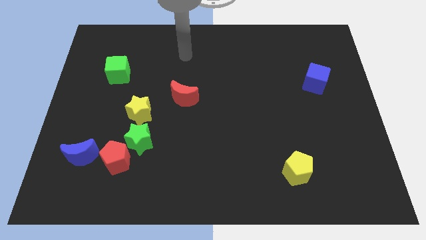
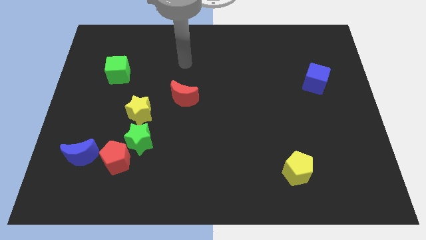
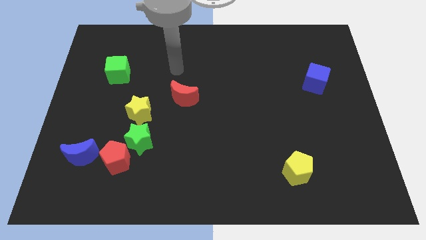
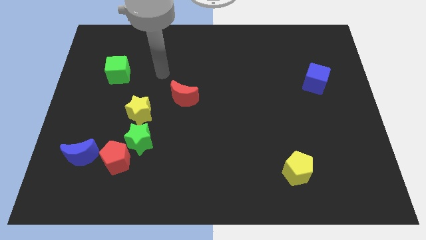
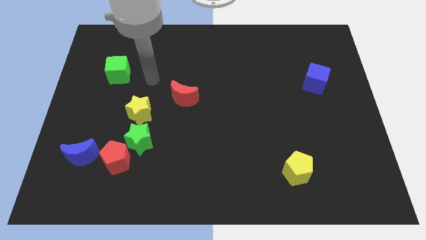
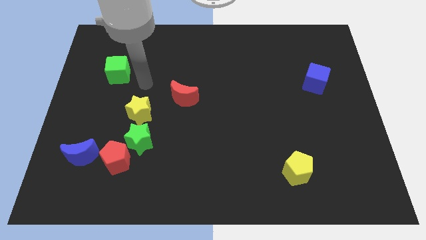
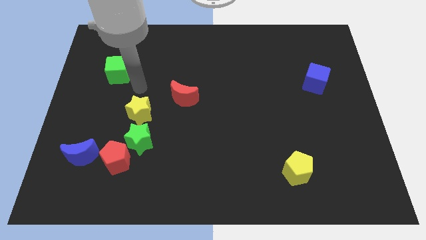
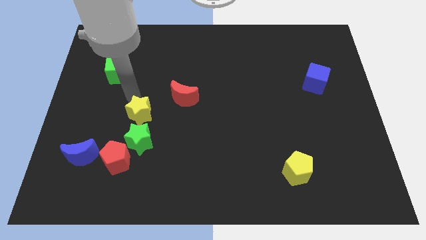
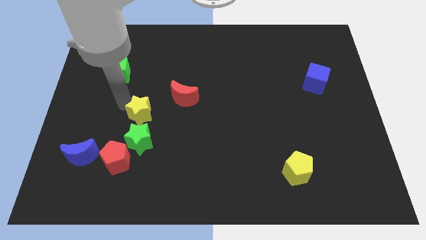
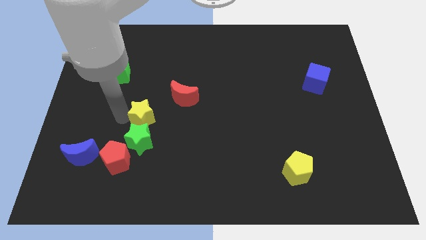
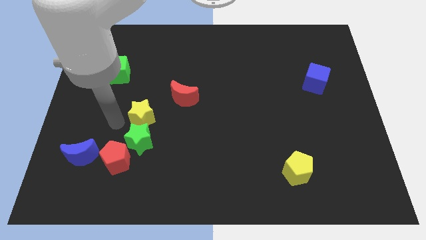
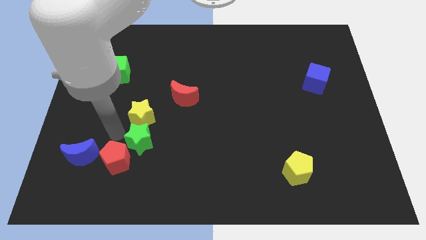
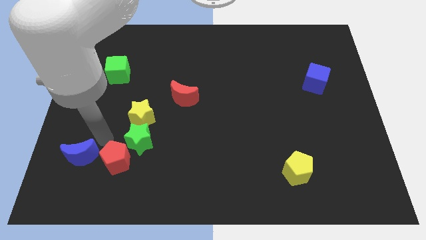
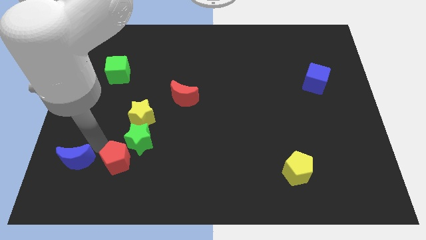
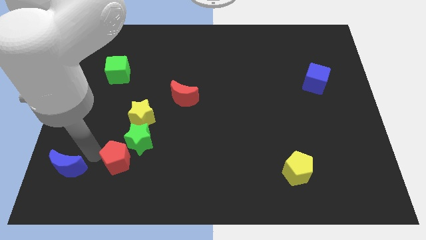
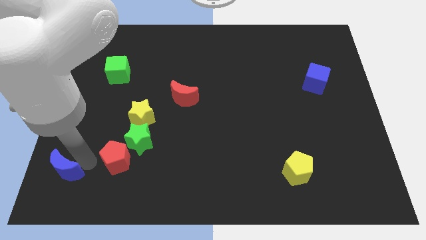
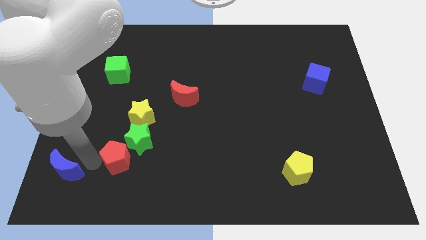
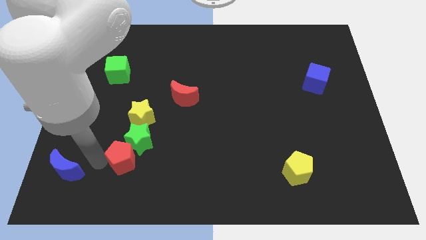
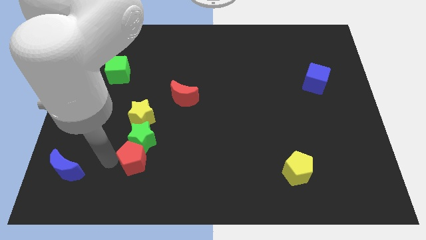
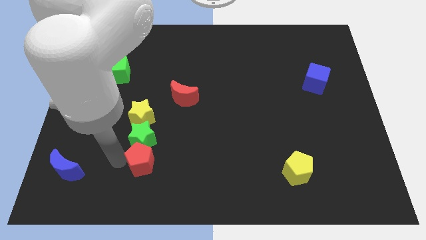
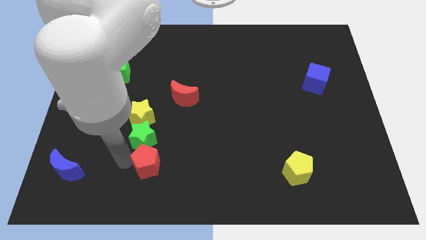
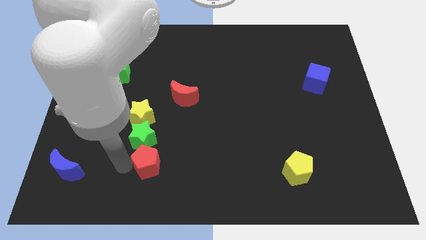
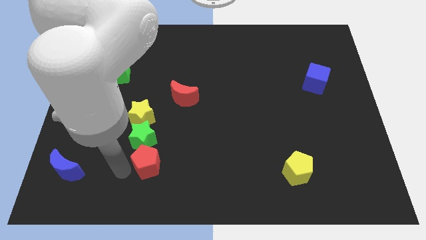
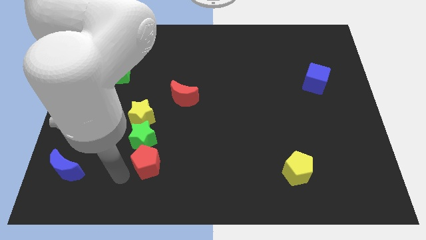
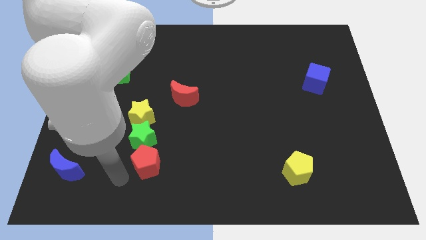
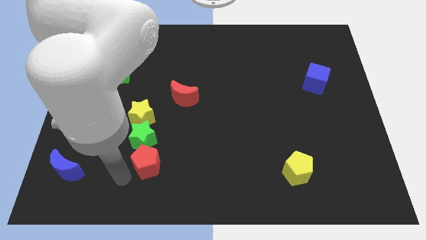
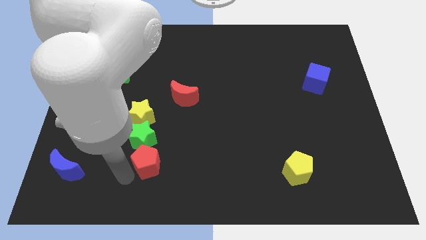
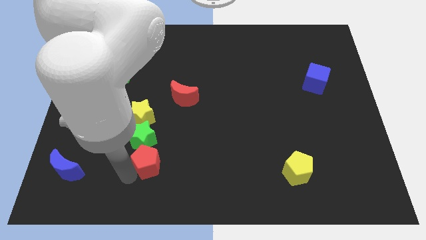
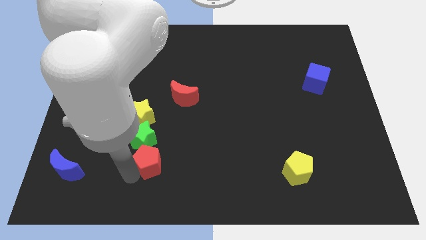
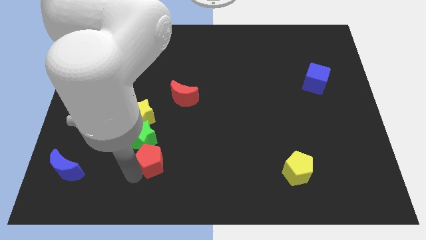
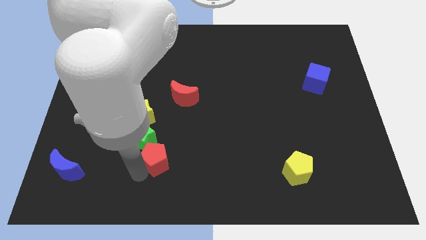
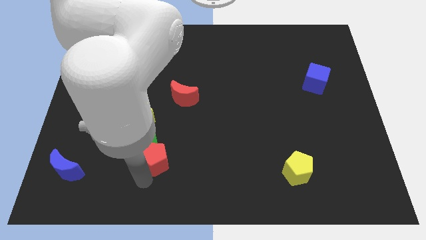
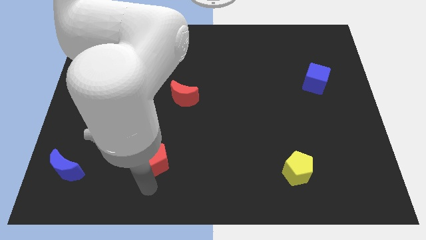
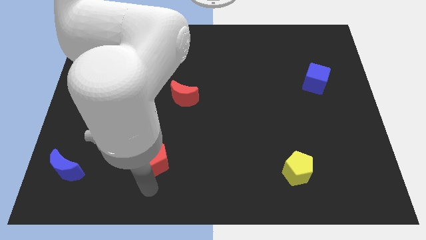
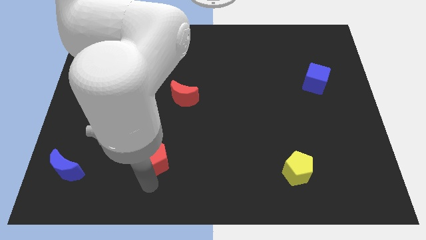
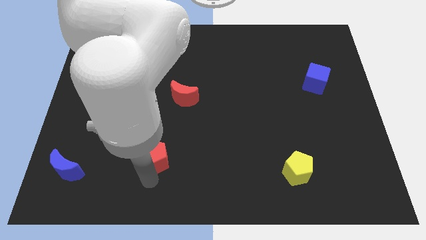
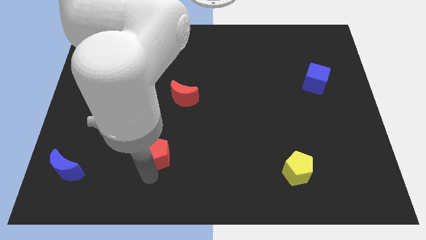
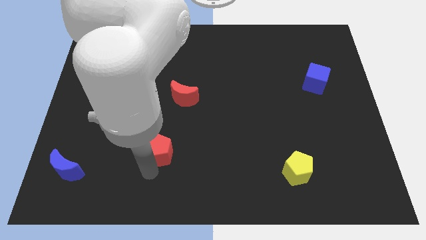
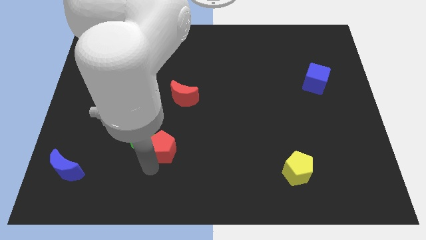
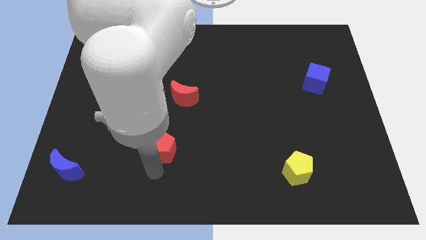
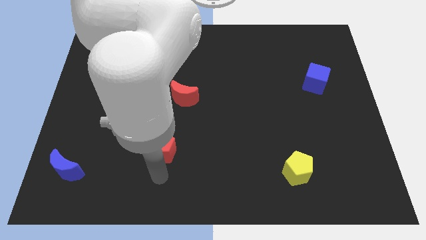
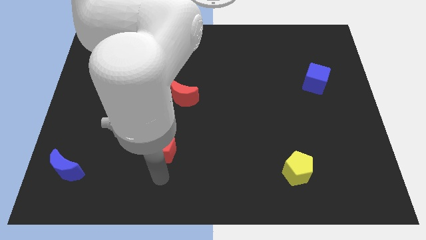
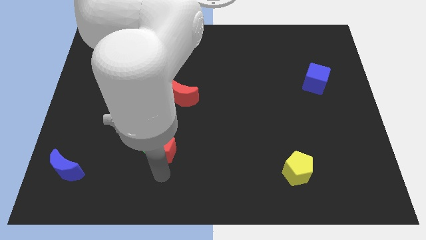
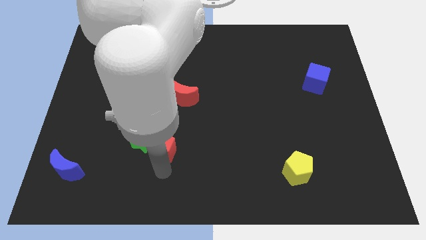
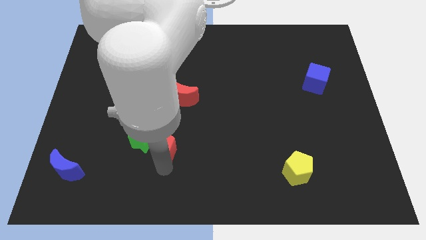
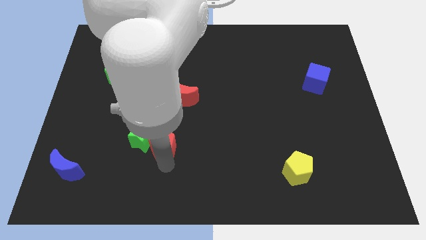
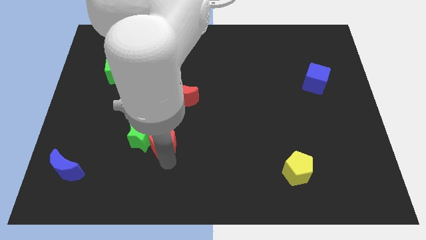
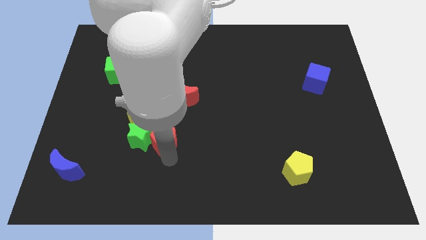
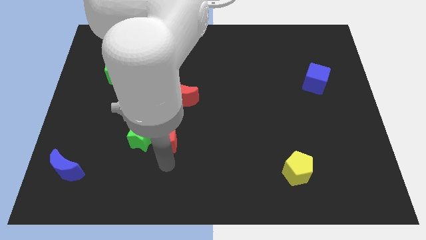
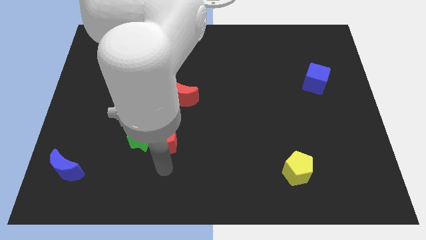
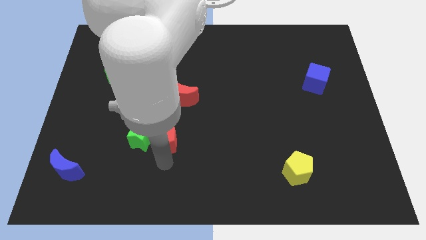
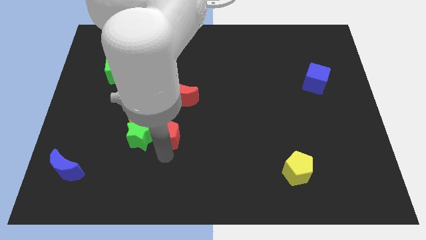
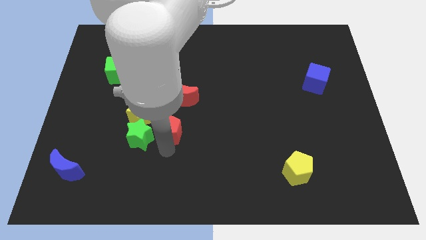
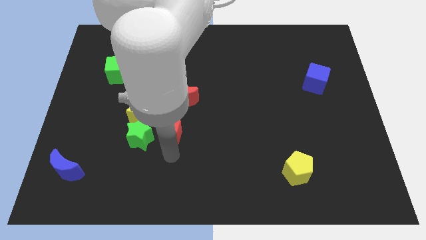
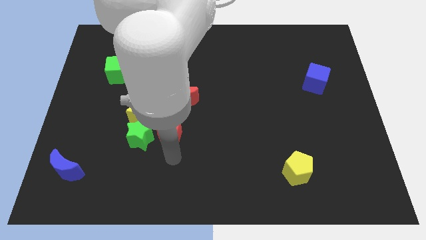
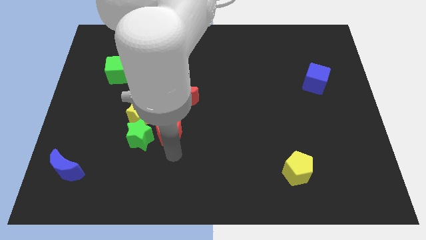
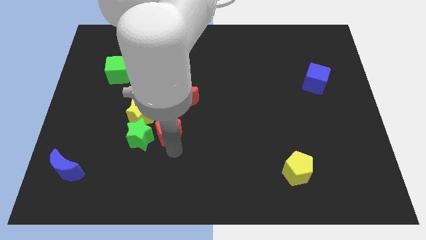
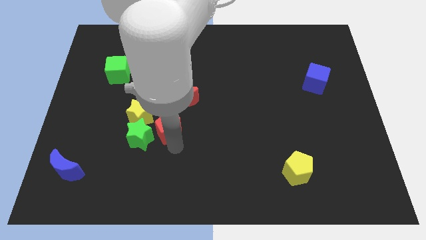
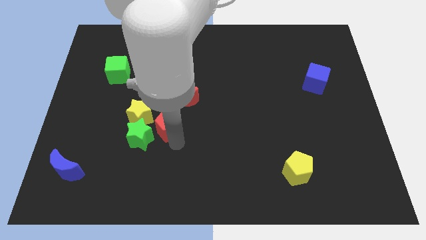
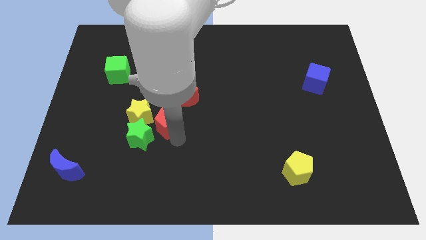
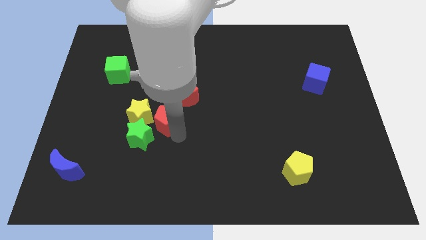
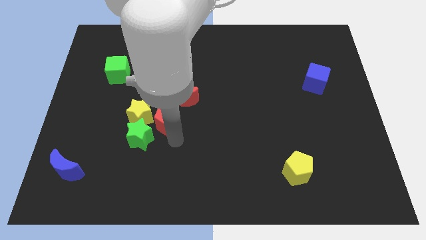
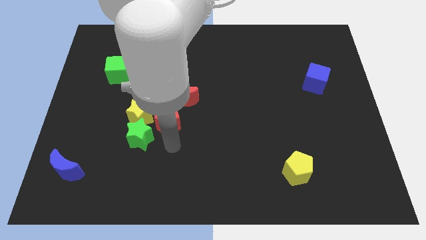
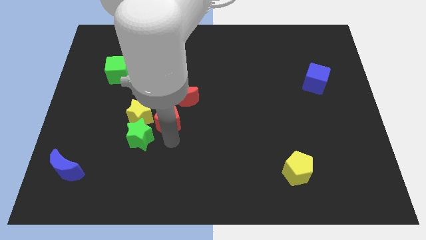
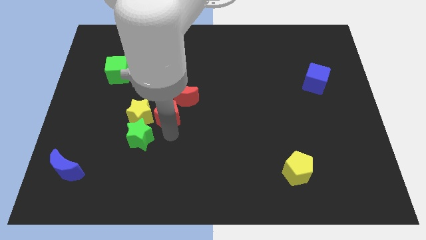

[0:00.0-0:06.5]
move the red pentagon diagonally up and to the right of the yellow star
